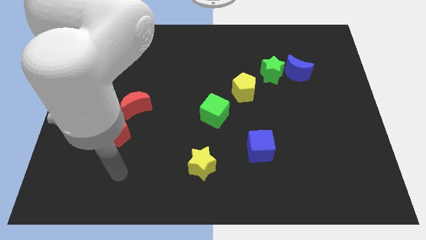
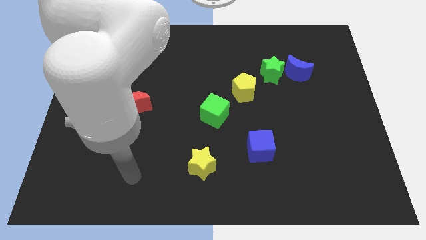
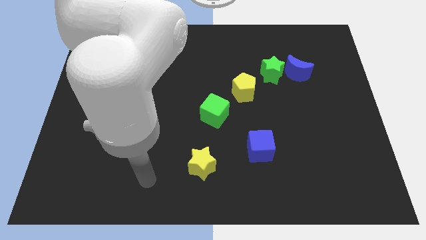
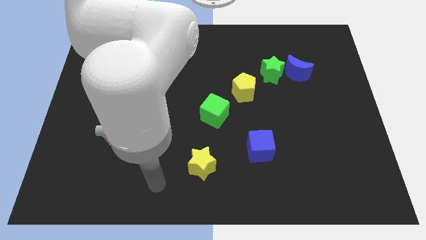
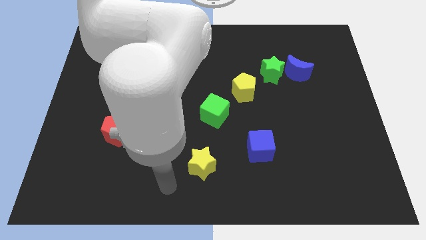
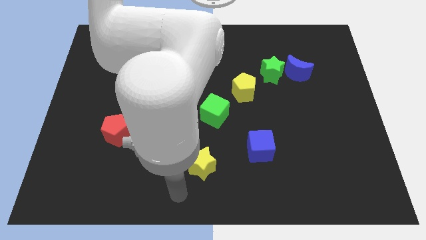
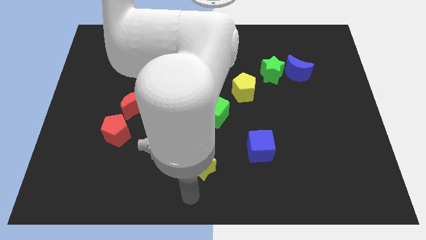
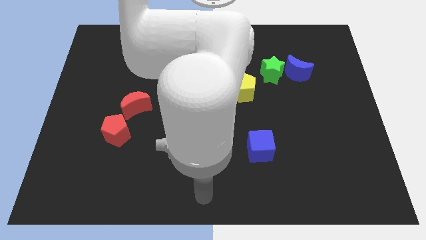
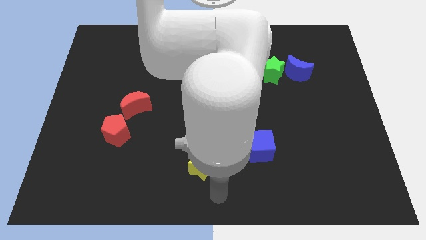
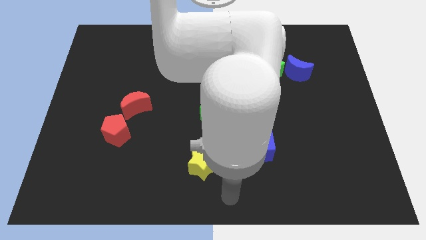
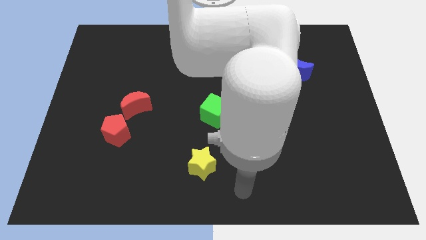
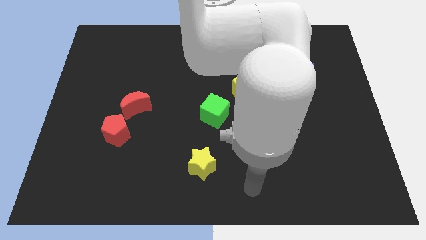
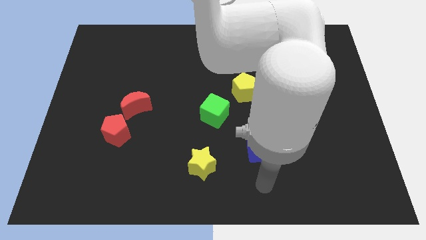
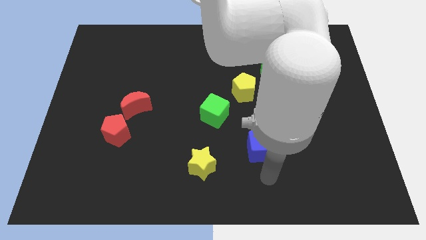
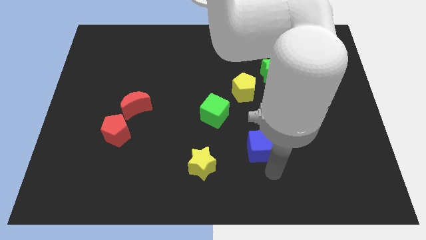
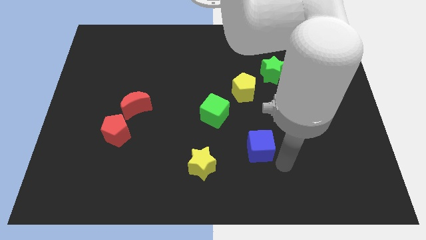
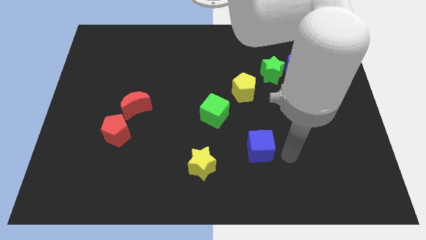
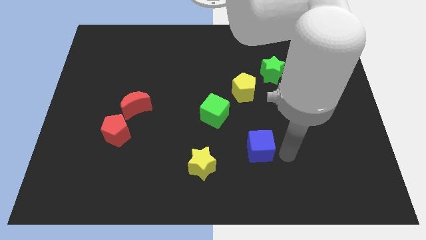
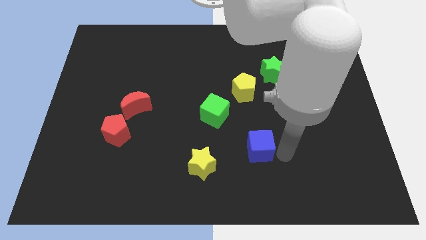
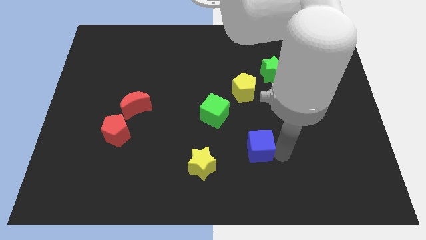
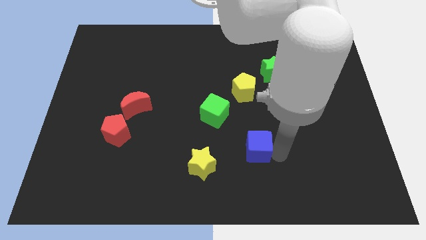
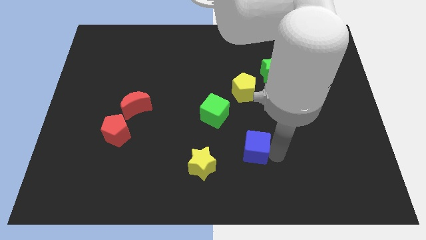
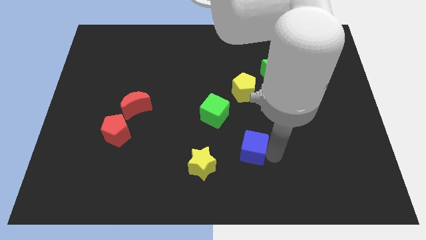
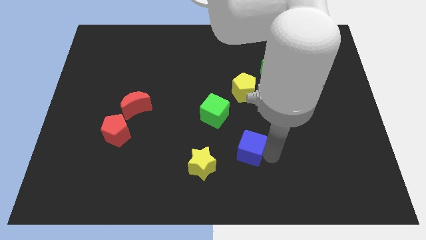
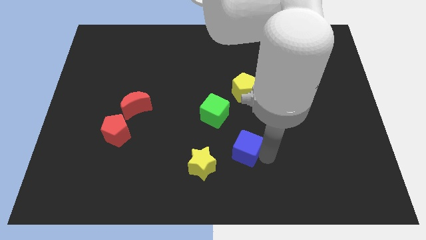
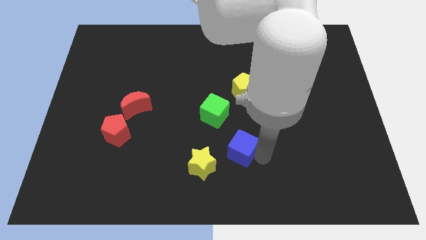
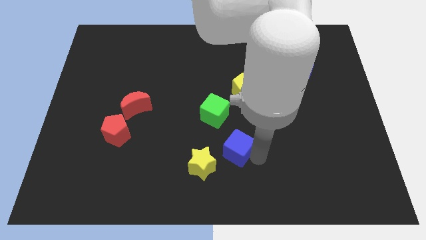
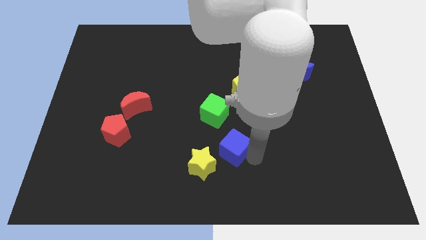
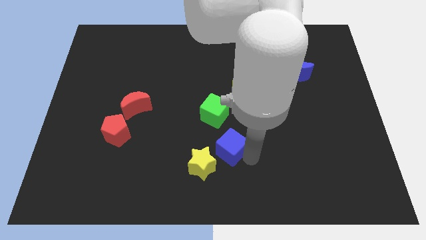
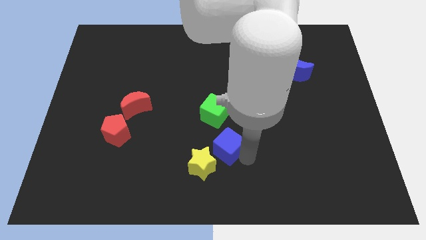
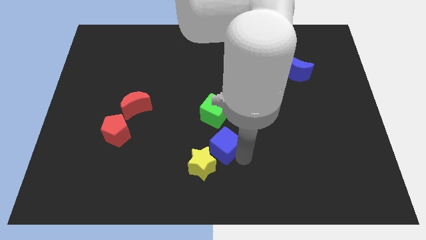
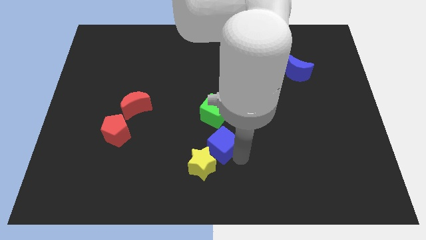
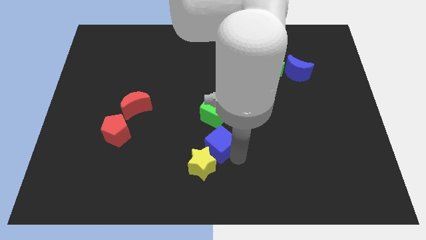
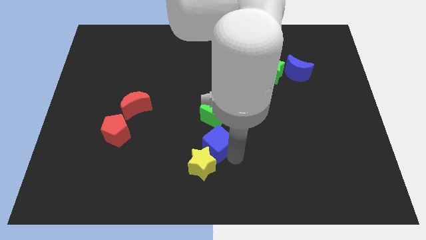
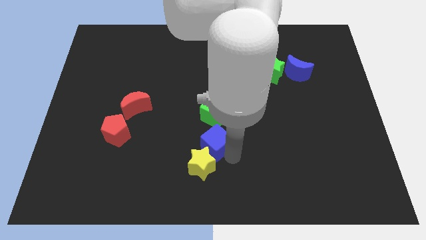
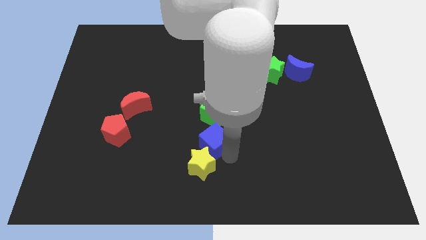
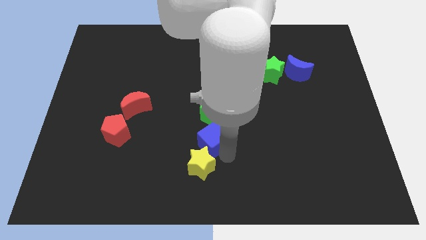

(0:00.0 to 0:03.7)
push the blue cube somewhat upwards and then left

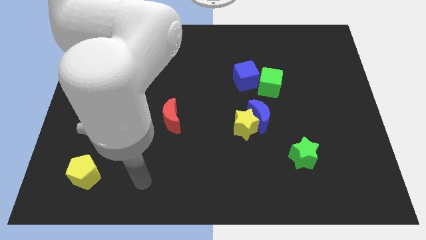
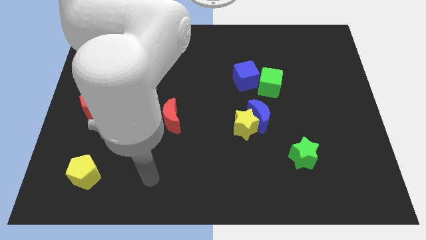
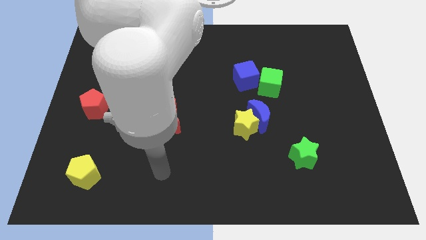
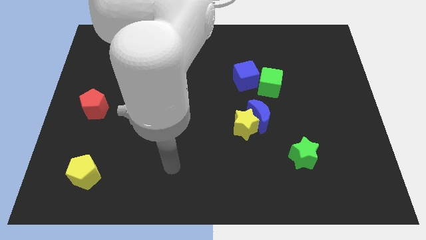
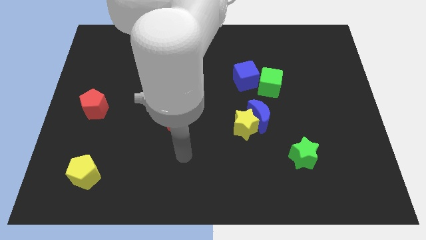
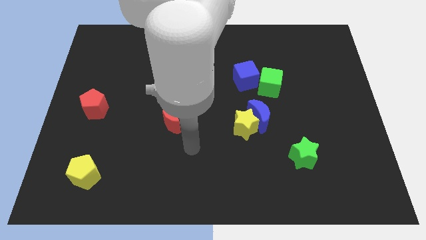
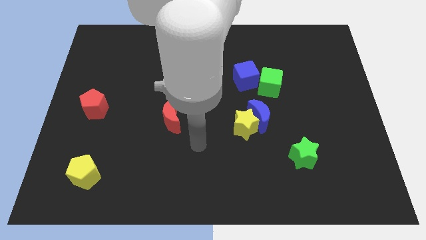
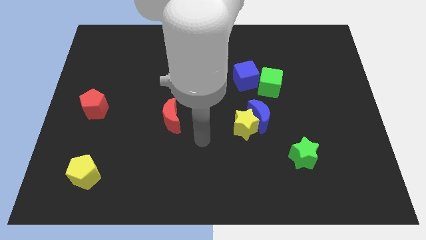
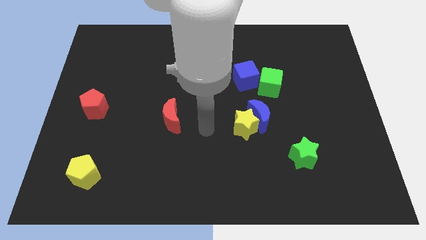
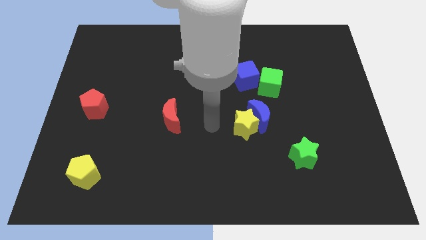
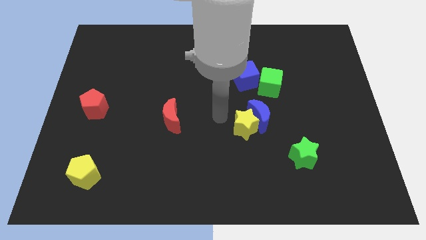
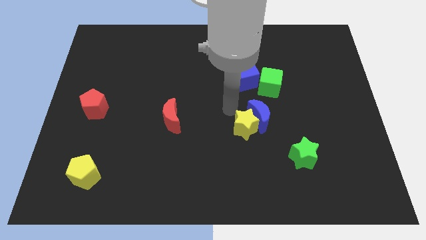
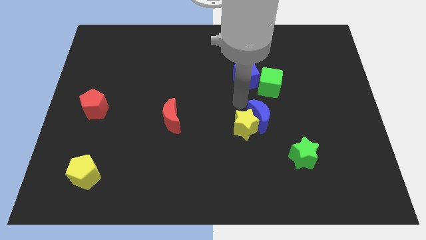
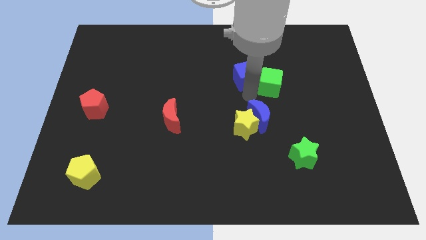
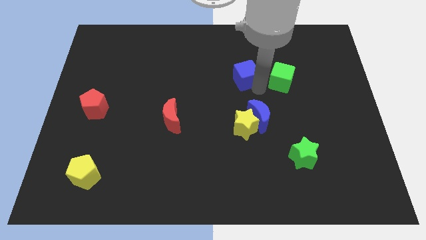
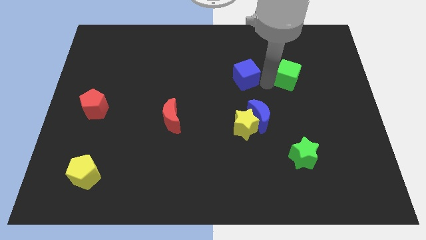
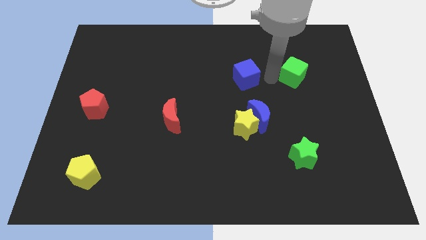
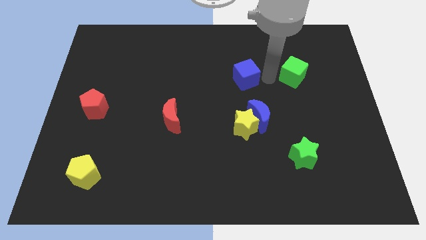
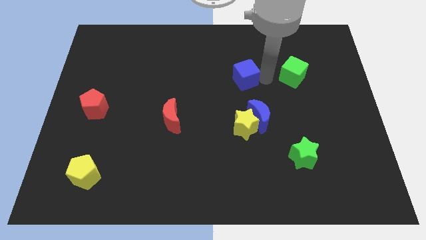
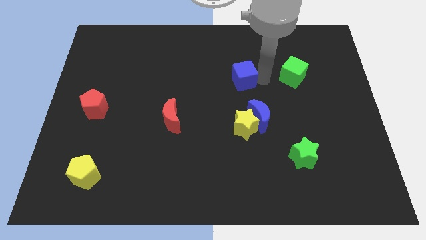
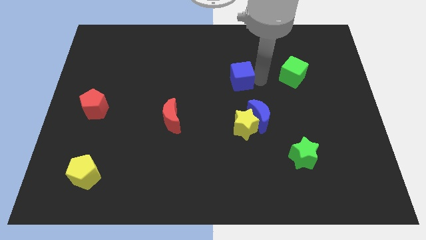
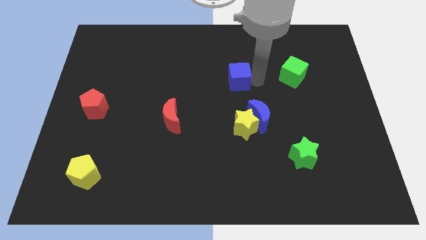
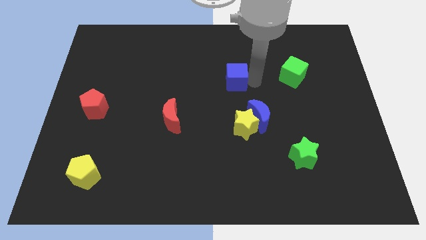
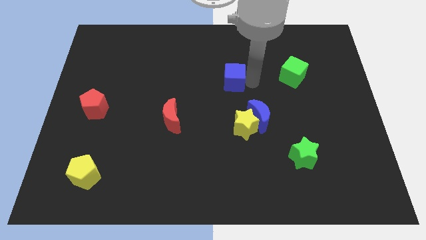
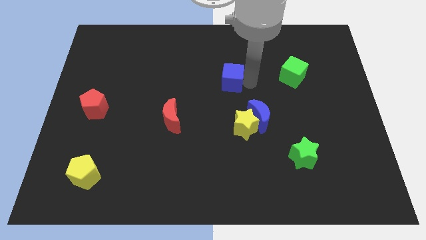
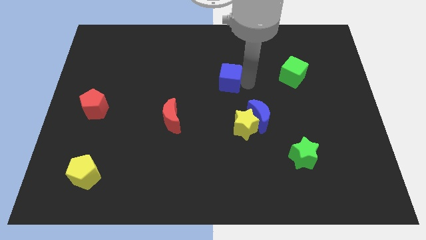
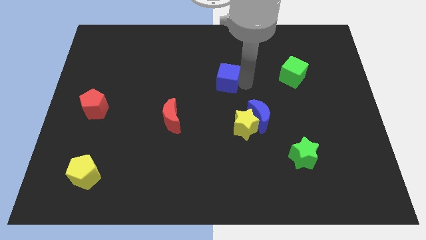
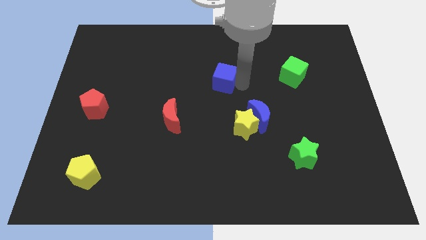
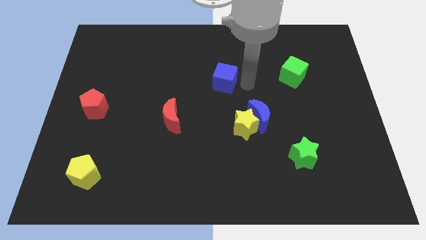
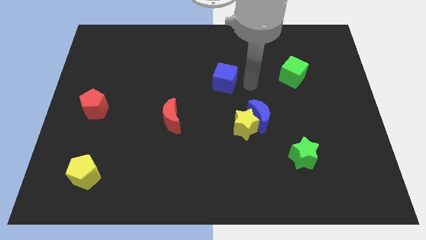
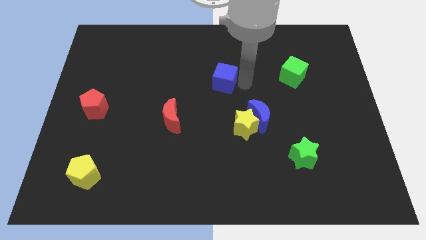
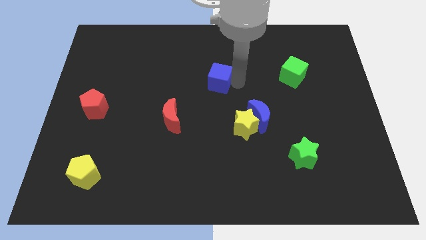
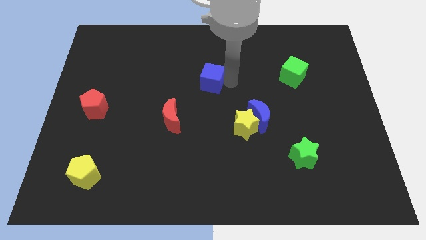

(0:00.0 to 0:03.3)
slightly slide the blue cube left

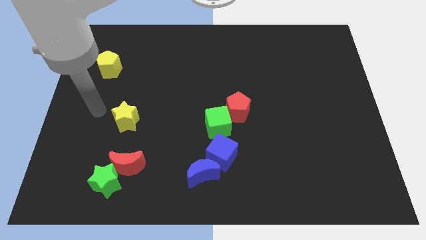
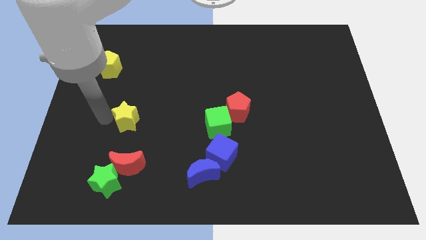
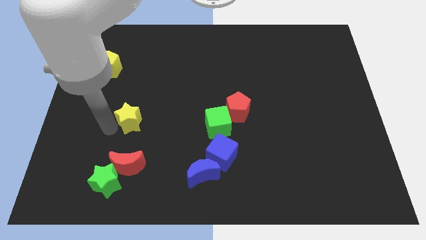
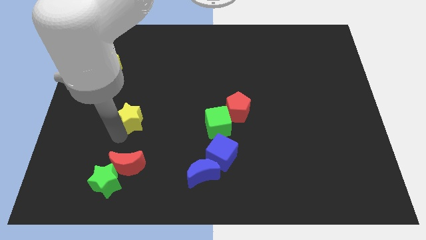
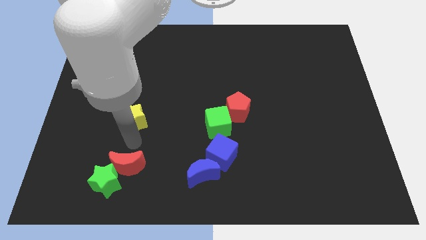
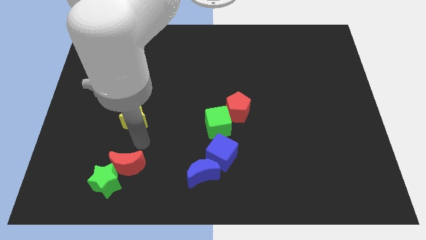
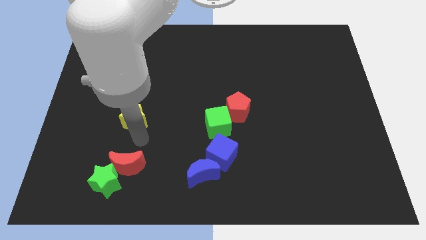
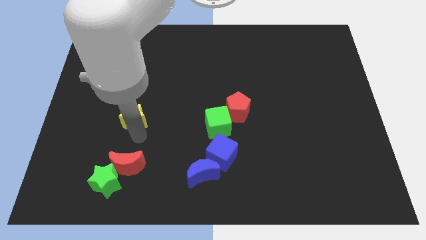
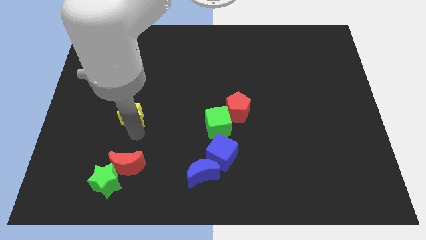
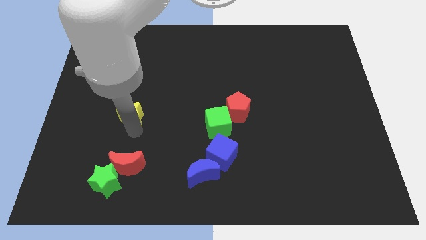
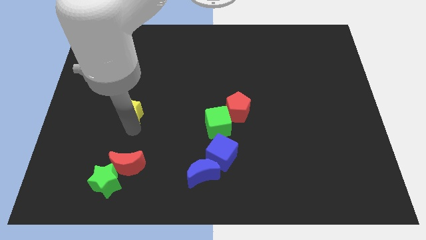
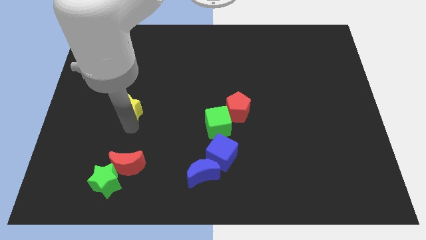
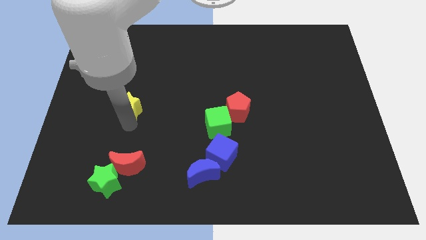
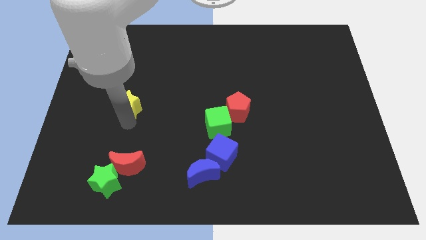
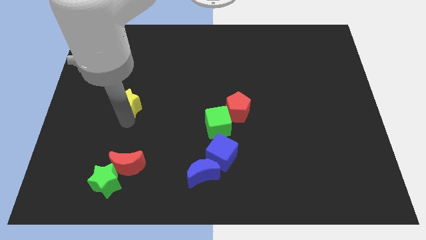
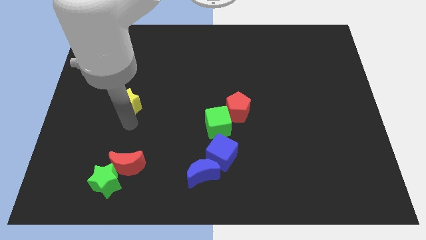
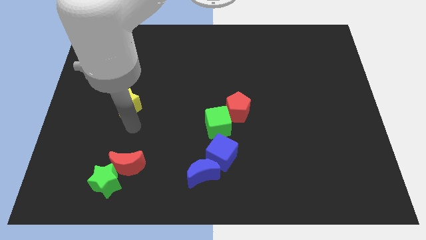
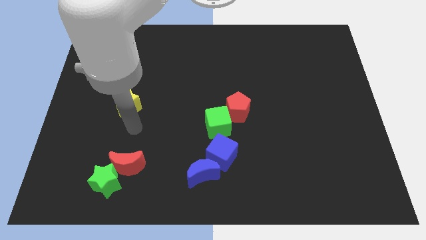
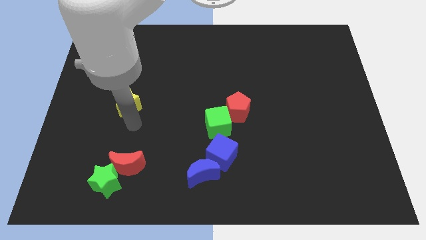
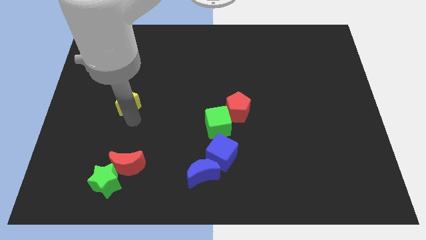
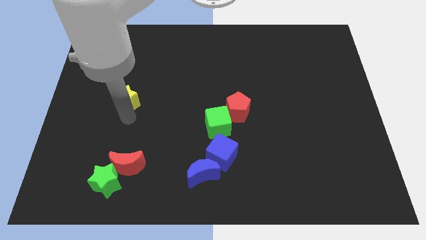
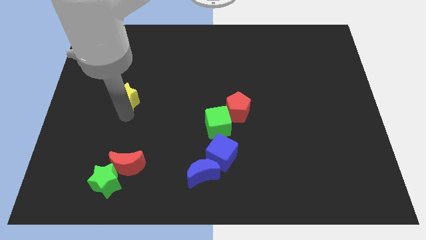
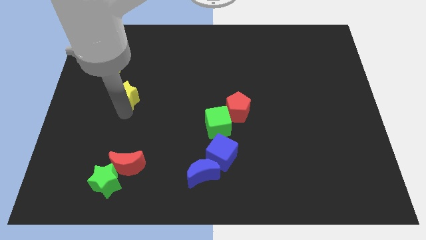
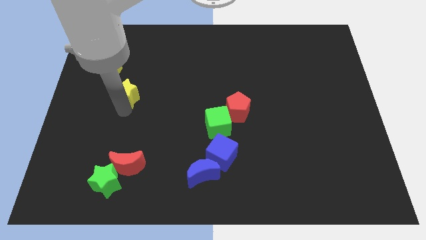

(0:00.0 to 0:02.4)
move the yellow star somewhat upwards
